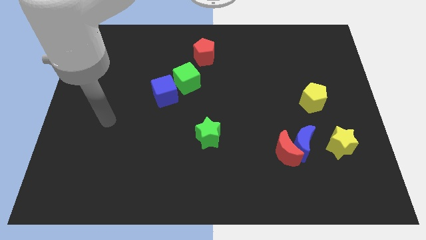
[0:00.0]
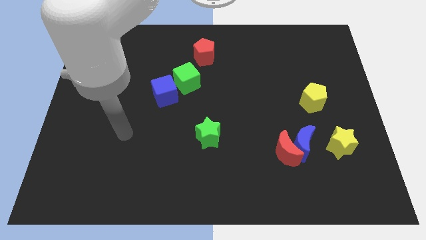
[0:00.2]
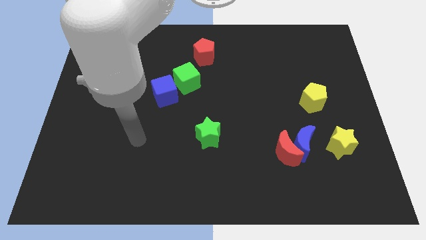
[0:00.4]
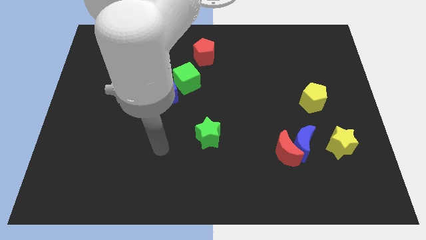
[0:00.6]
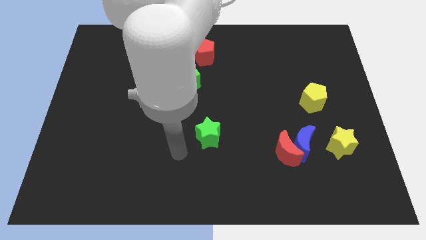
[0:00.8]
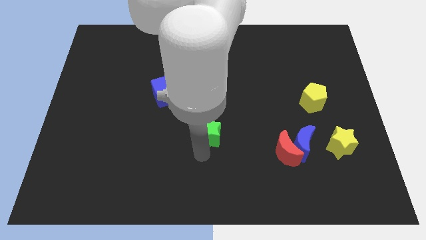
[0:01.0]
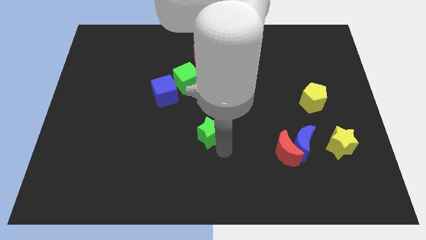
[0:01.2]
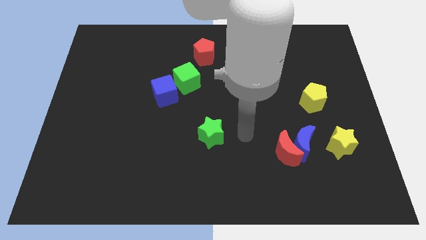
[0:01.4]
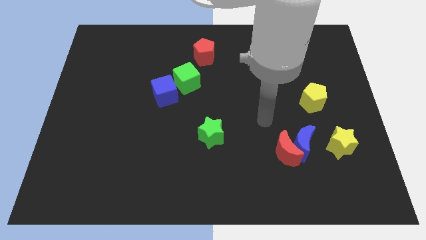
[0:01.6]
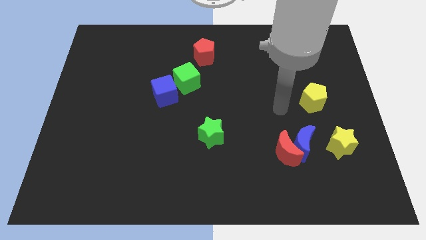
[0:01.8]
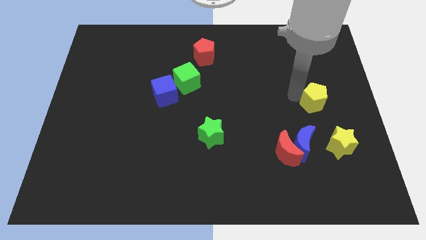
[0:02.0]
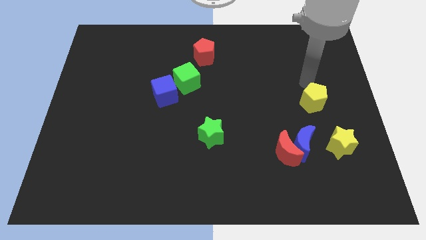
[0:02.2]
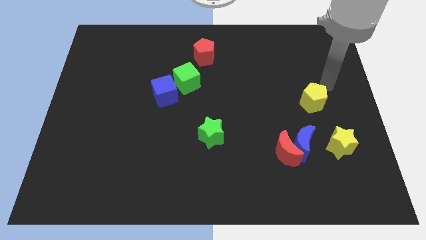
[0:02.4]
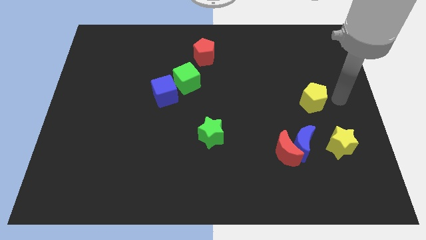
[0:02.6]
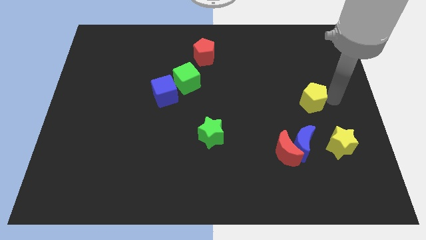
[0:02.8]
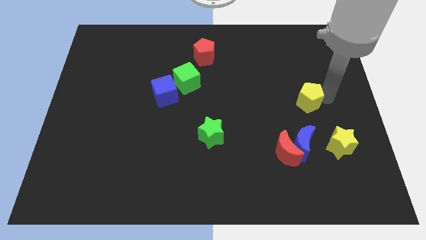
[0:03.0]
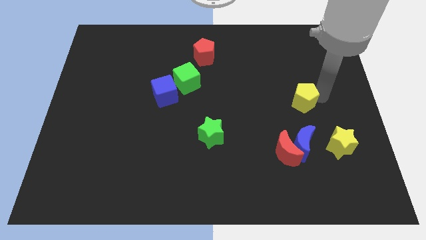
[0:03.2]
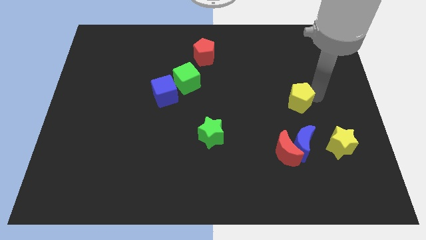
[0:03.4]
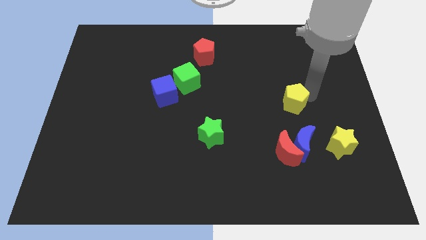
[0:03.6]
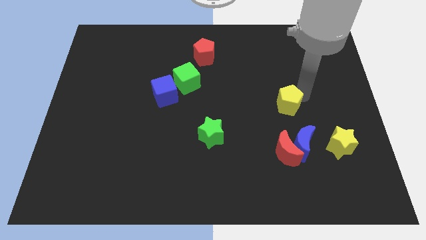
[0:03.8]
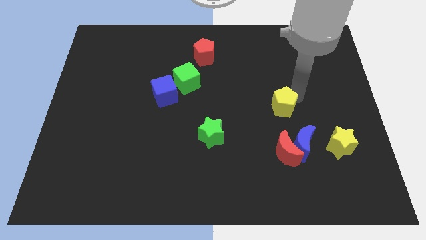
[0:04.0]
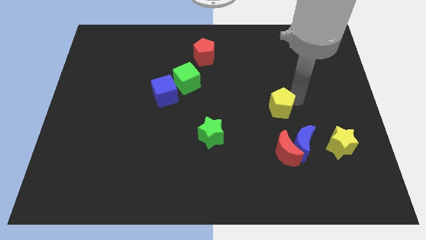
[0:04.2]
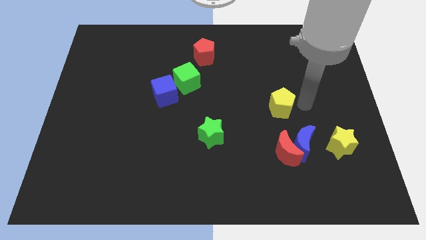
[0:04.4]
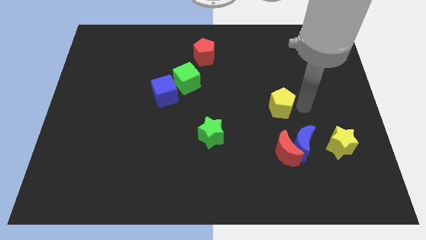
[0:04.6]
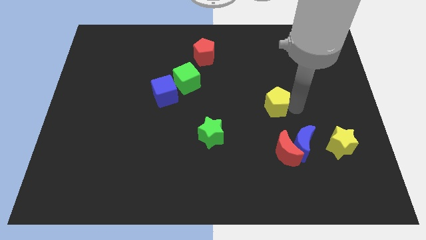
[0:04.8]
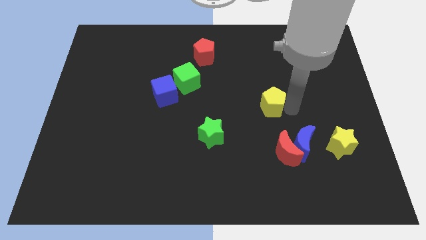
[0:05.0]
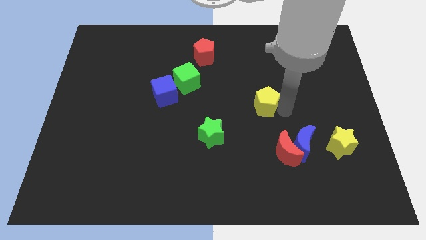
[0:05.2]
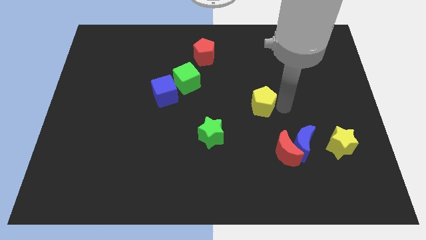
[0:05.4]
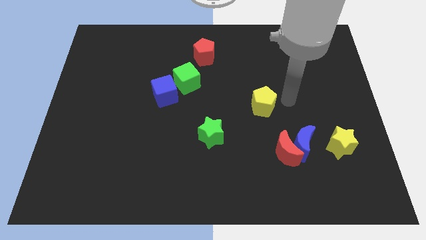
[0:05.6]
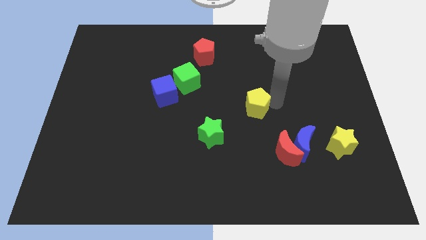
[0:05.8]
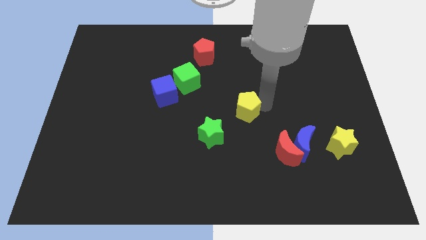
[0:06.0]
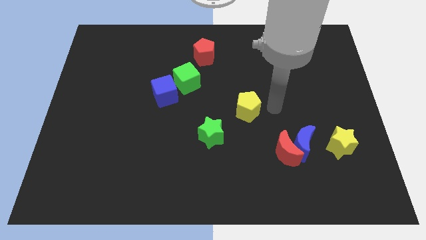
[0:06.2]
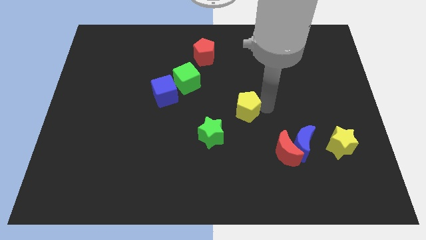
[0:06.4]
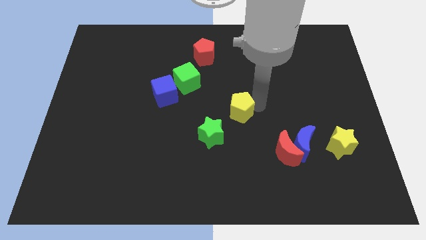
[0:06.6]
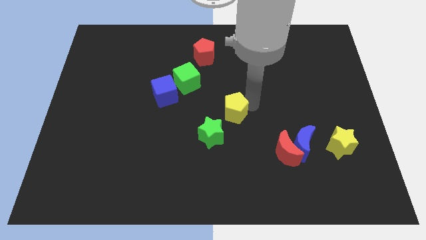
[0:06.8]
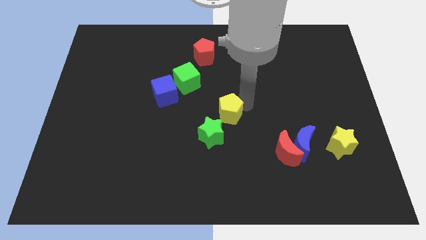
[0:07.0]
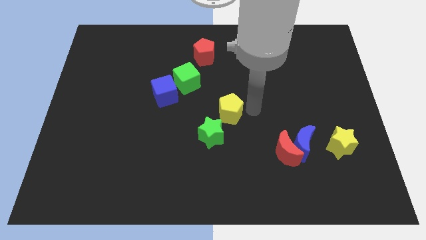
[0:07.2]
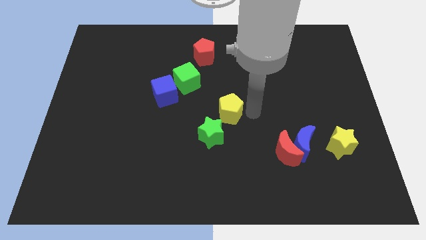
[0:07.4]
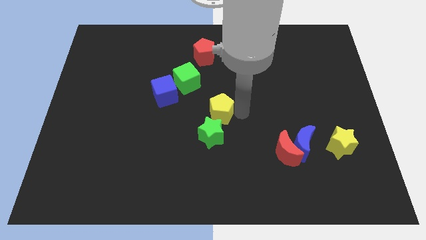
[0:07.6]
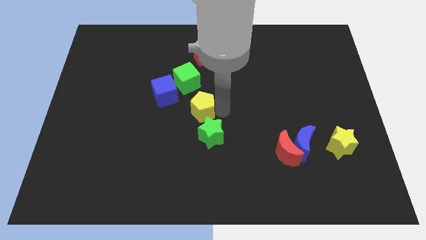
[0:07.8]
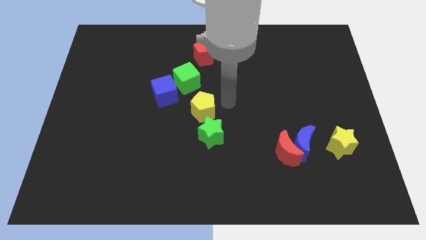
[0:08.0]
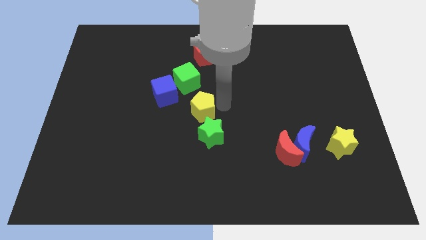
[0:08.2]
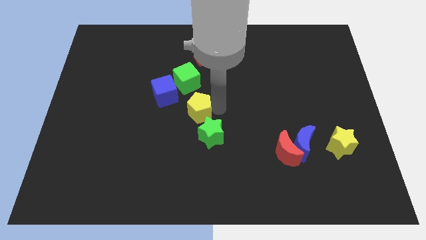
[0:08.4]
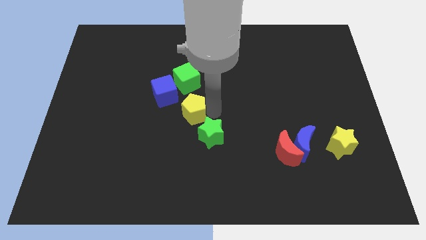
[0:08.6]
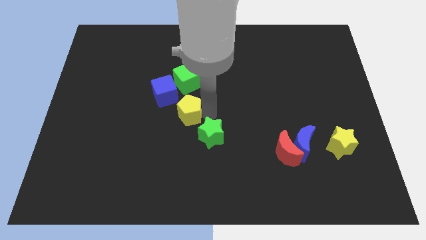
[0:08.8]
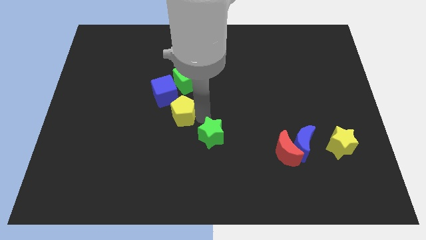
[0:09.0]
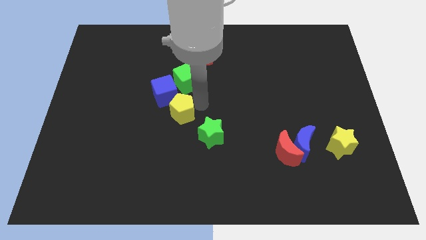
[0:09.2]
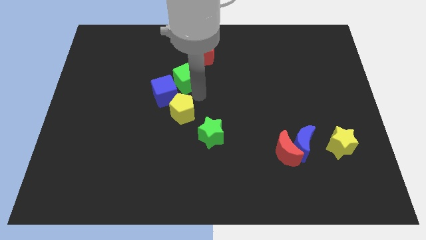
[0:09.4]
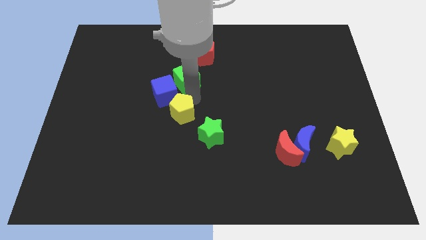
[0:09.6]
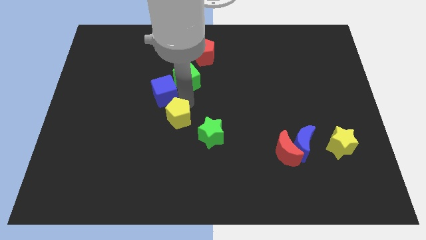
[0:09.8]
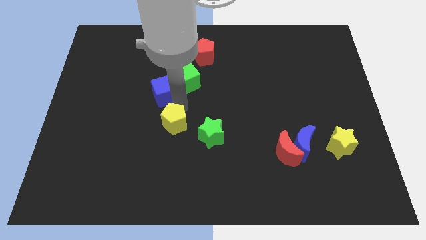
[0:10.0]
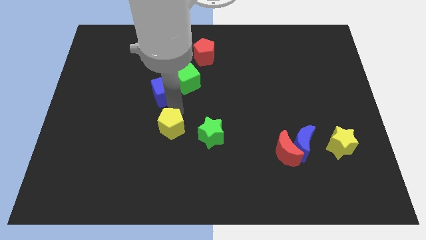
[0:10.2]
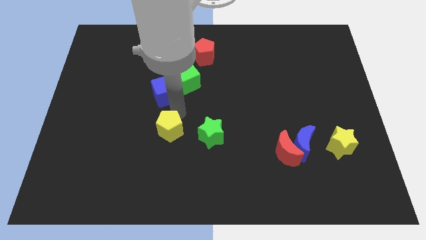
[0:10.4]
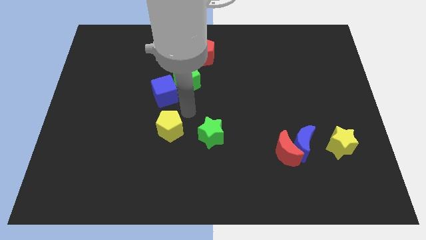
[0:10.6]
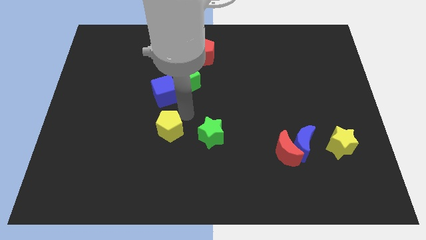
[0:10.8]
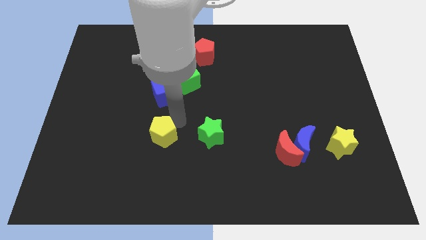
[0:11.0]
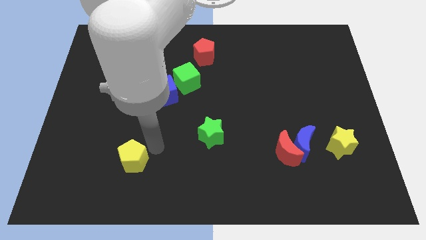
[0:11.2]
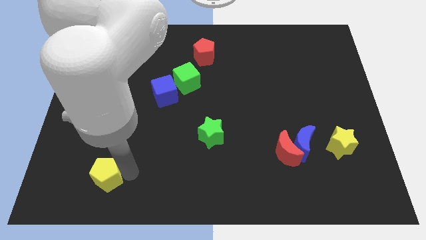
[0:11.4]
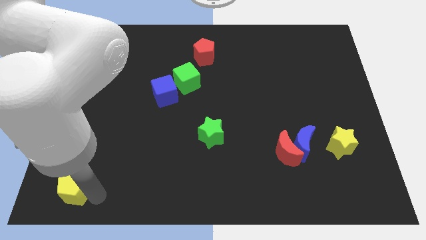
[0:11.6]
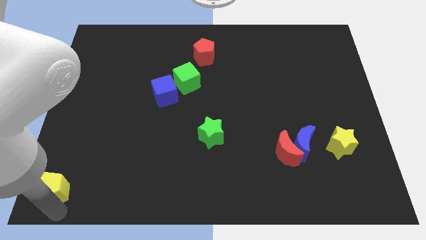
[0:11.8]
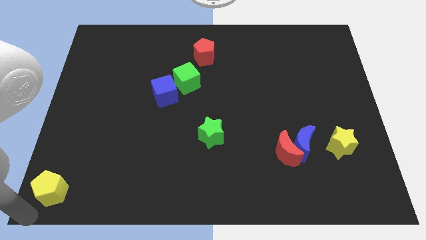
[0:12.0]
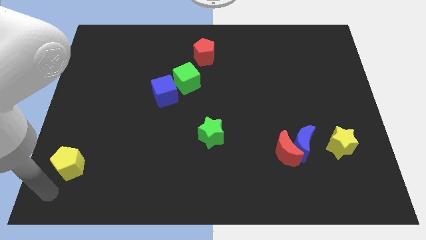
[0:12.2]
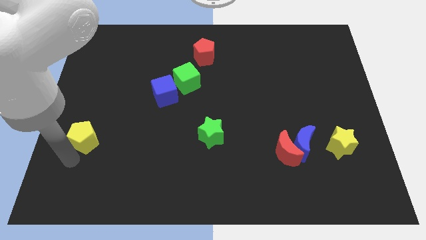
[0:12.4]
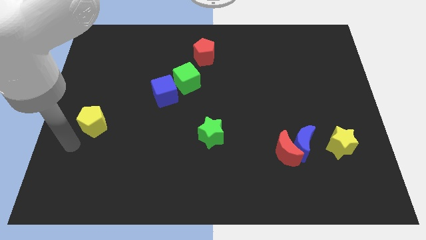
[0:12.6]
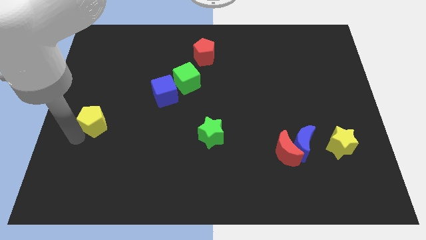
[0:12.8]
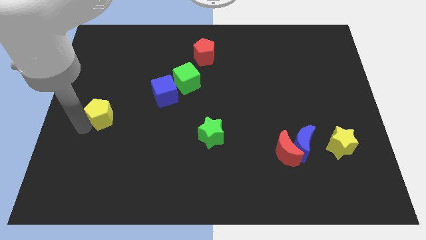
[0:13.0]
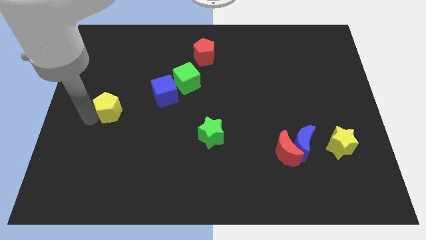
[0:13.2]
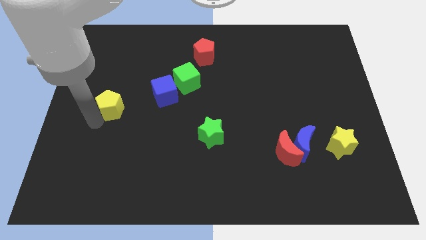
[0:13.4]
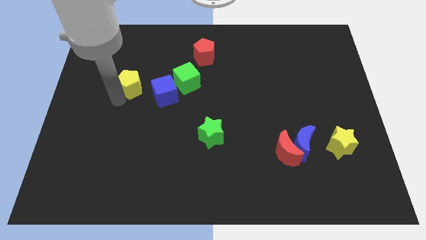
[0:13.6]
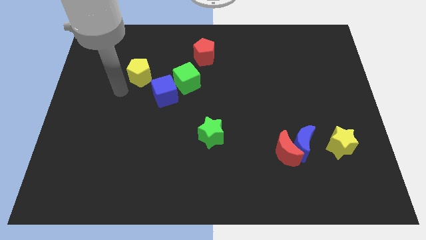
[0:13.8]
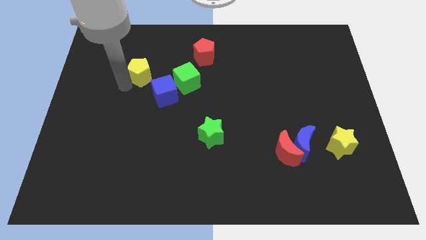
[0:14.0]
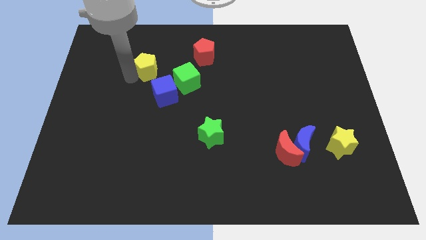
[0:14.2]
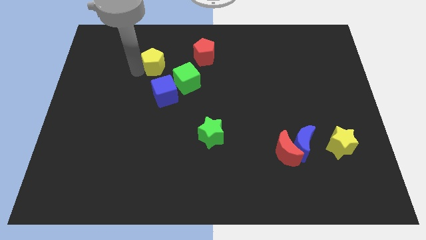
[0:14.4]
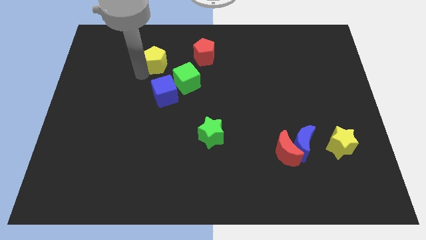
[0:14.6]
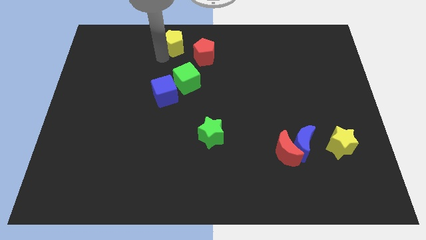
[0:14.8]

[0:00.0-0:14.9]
slide the yellow pentagon to the top
